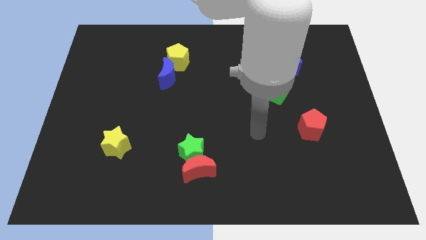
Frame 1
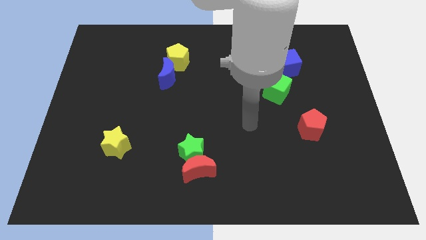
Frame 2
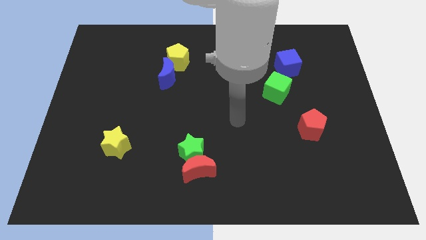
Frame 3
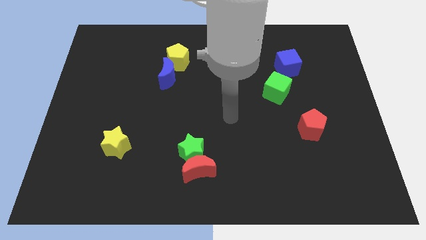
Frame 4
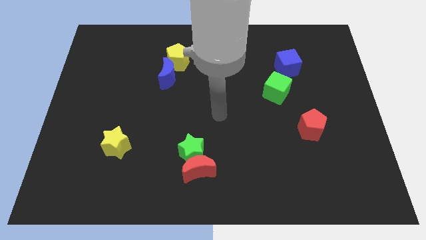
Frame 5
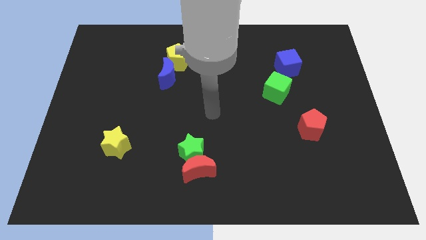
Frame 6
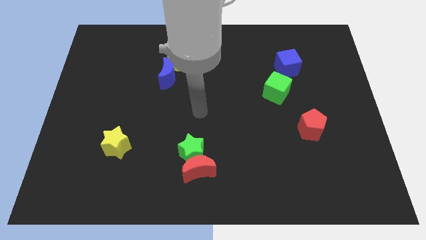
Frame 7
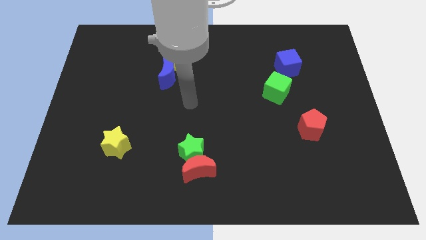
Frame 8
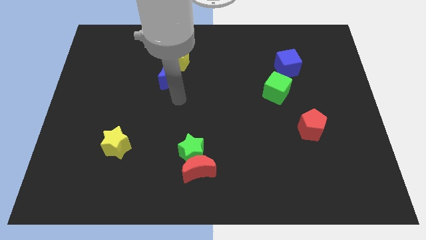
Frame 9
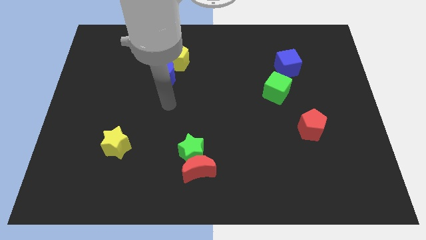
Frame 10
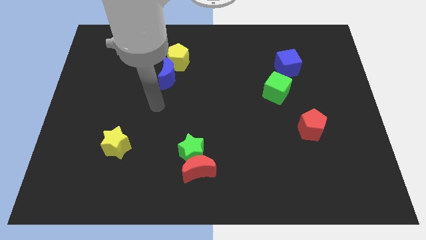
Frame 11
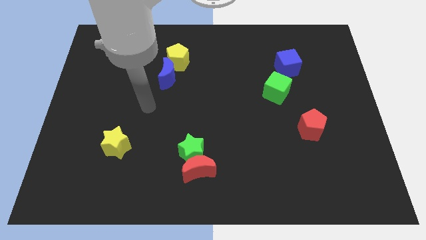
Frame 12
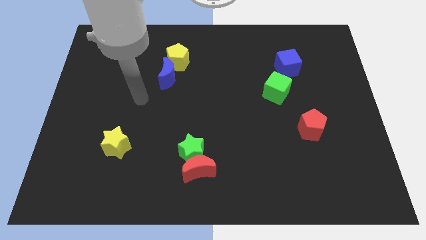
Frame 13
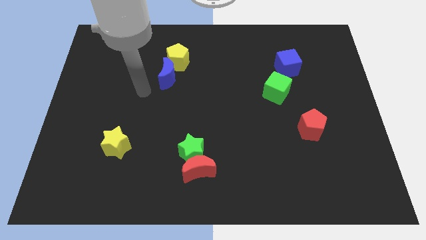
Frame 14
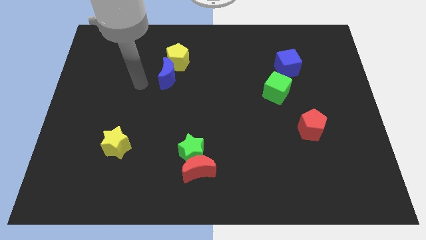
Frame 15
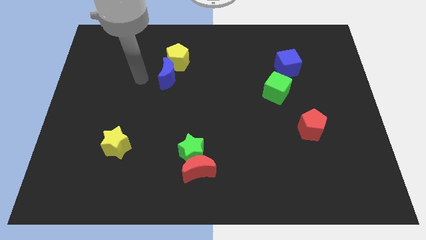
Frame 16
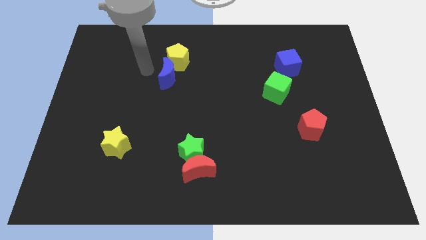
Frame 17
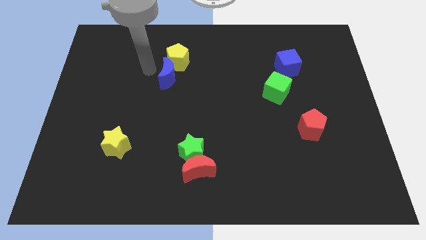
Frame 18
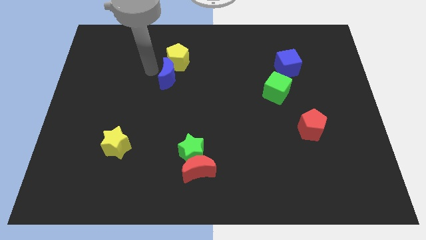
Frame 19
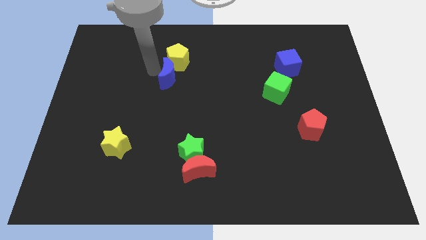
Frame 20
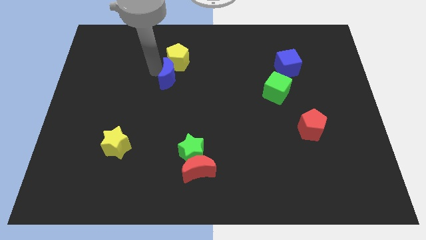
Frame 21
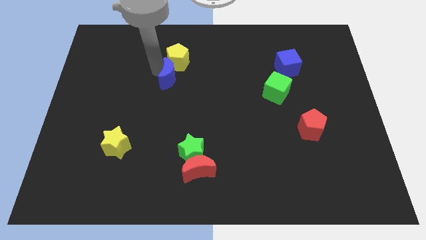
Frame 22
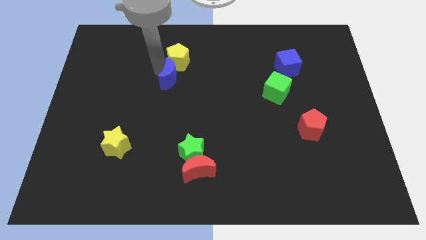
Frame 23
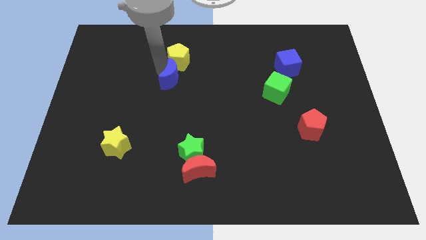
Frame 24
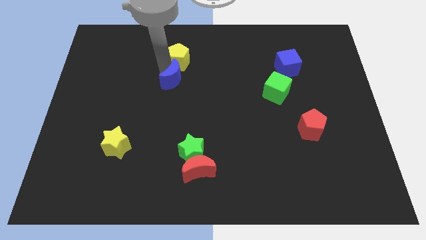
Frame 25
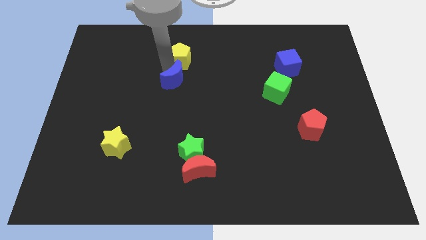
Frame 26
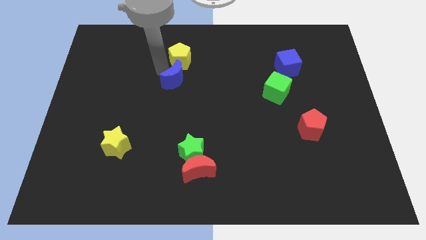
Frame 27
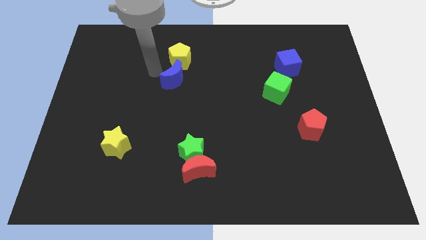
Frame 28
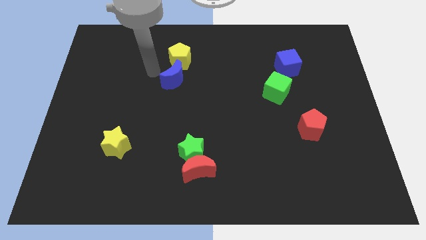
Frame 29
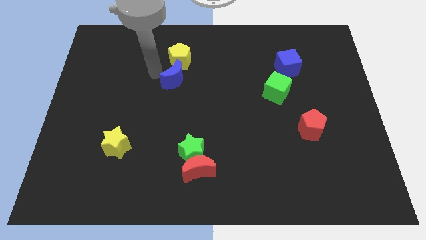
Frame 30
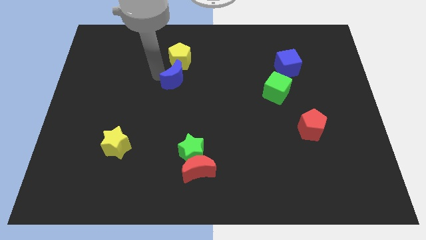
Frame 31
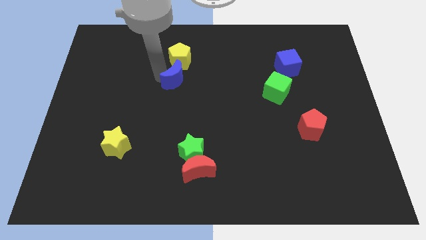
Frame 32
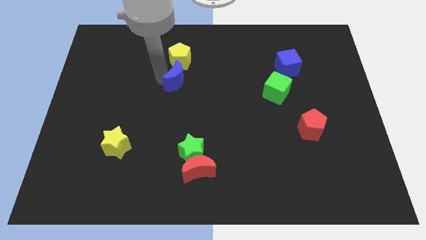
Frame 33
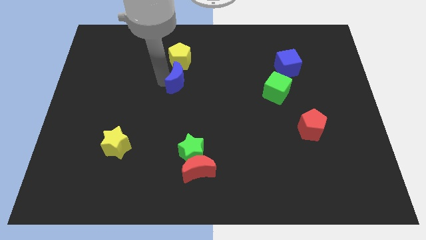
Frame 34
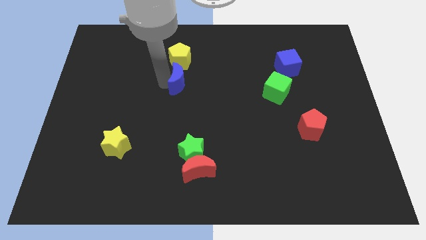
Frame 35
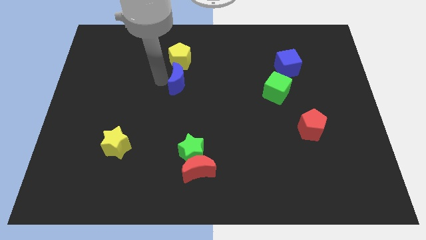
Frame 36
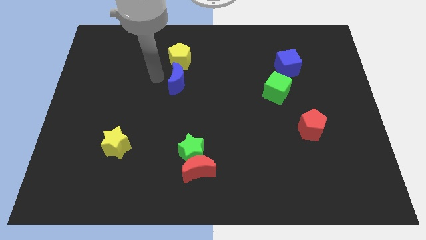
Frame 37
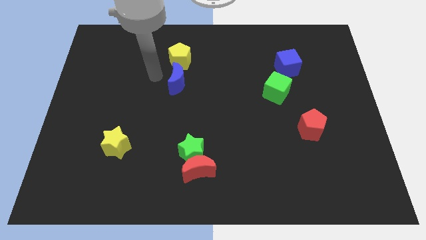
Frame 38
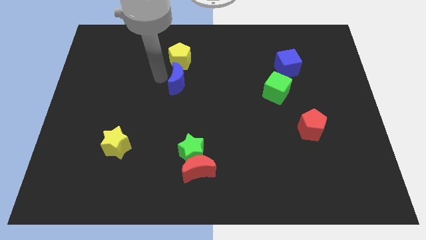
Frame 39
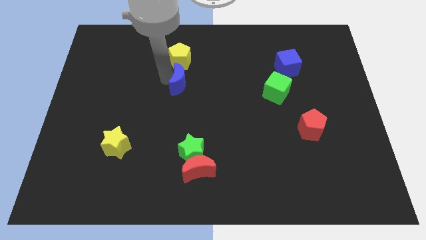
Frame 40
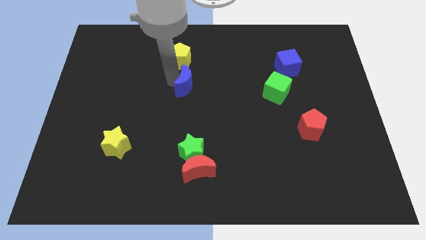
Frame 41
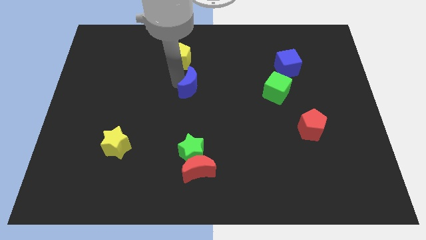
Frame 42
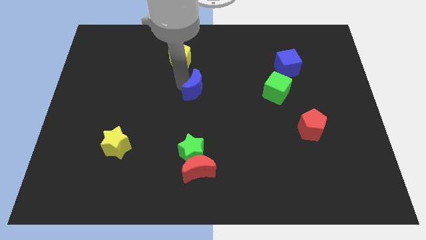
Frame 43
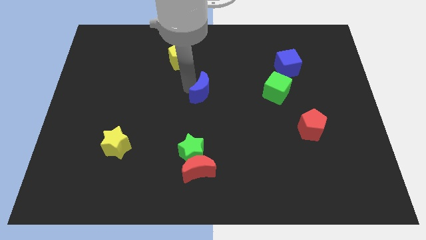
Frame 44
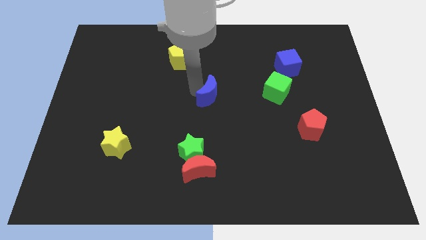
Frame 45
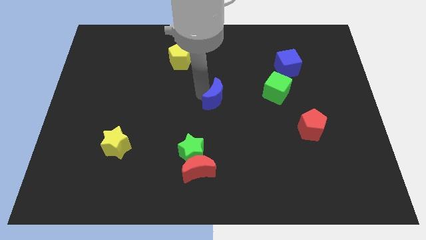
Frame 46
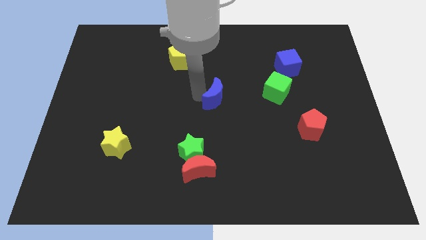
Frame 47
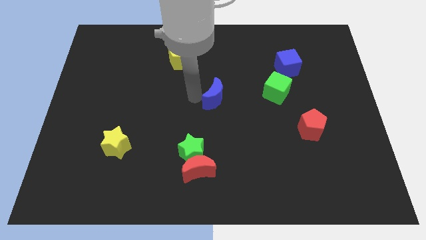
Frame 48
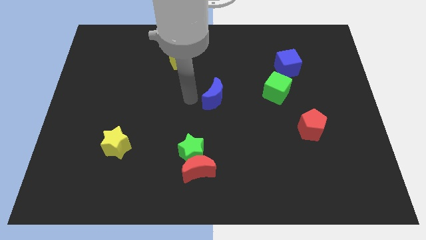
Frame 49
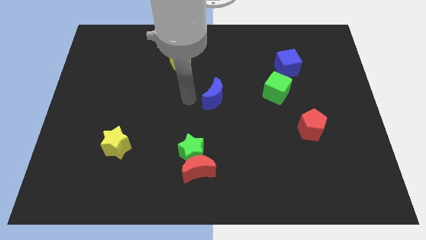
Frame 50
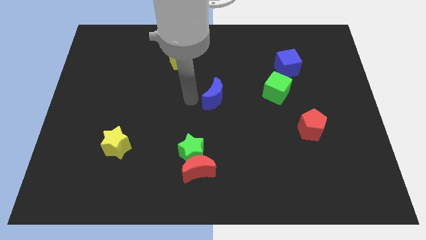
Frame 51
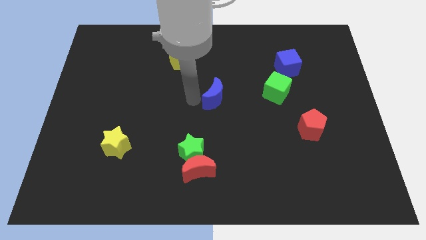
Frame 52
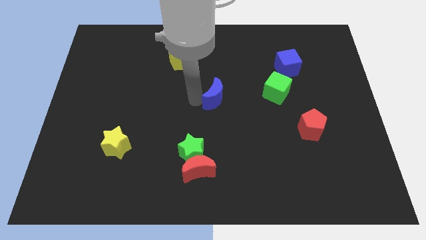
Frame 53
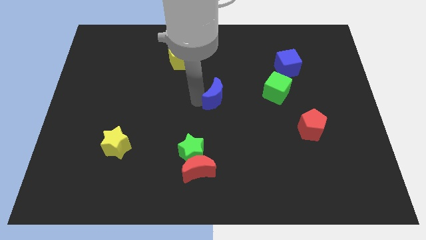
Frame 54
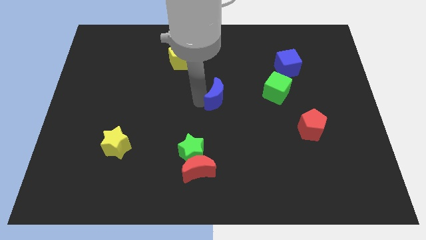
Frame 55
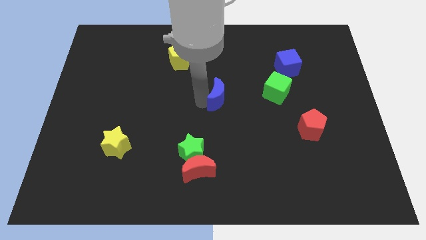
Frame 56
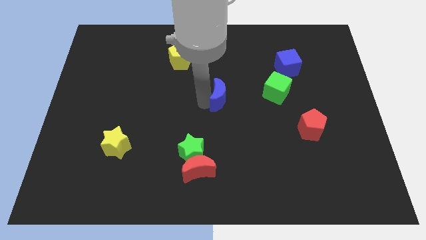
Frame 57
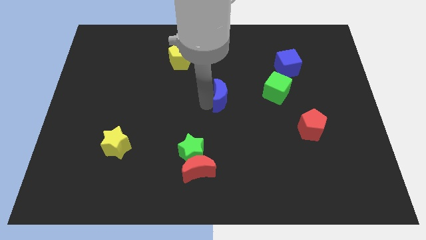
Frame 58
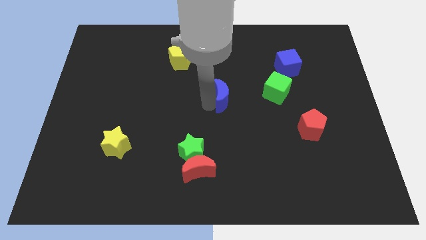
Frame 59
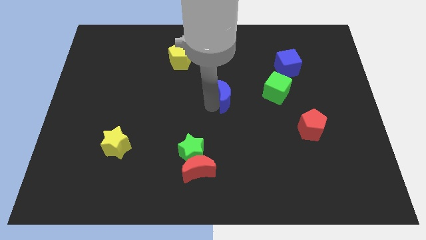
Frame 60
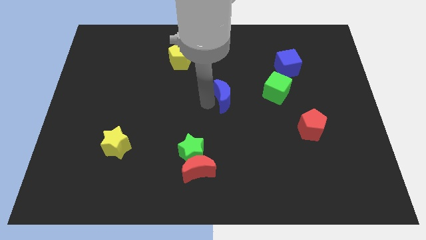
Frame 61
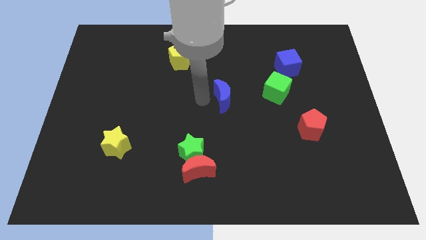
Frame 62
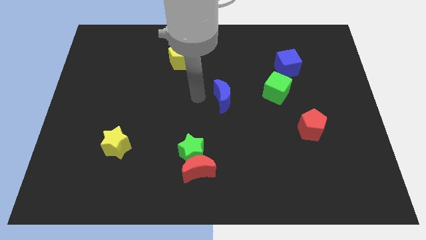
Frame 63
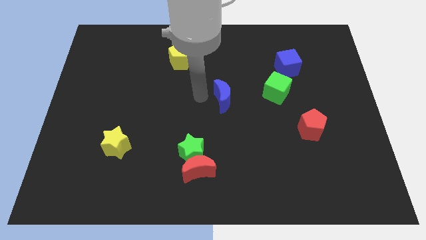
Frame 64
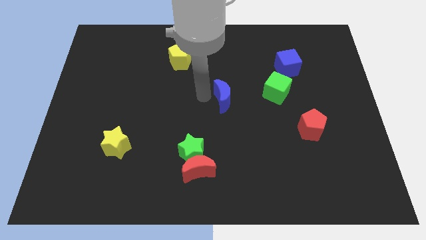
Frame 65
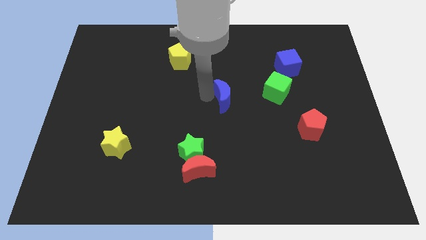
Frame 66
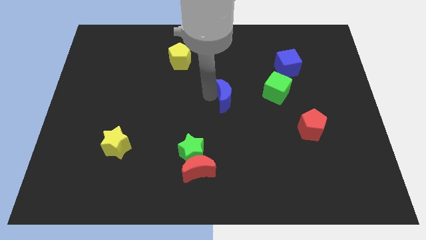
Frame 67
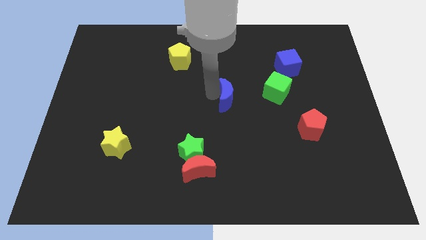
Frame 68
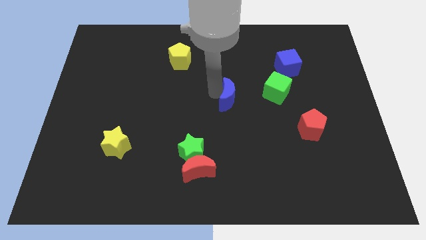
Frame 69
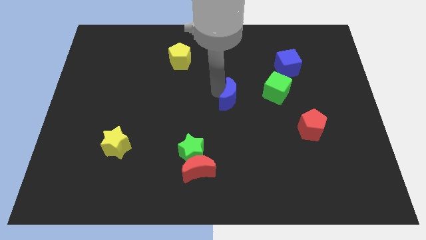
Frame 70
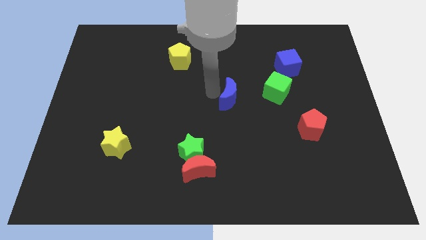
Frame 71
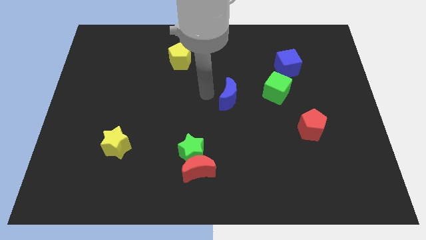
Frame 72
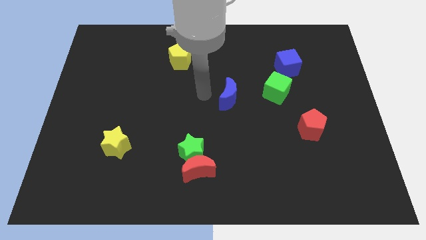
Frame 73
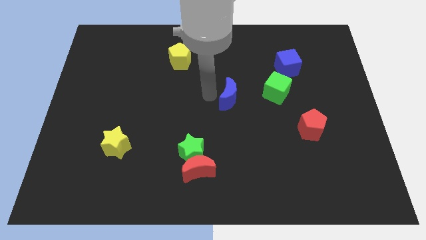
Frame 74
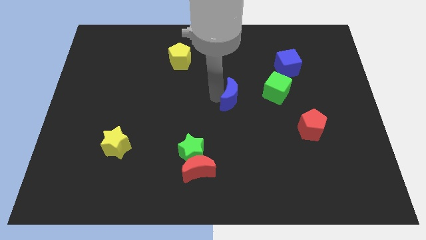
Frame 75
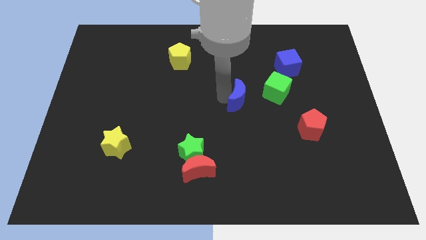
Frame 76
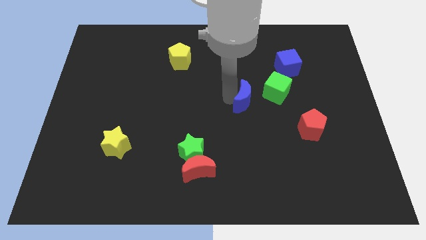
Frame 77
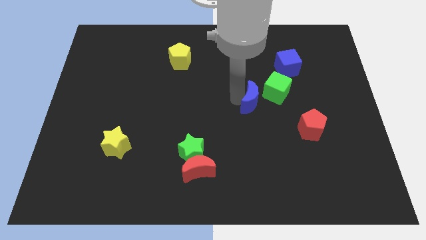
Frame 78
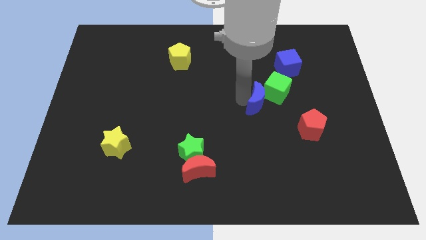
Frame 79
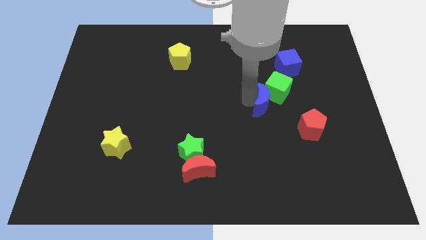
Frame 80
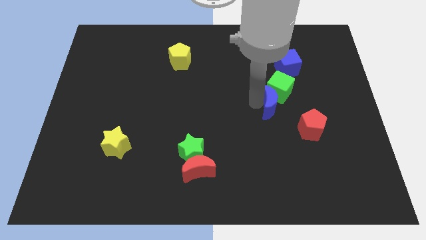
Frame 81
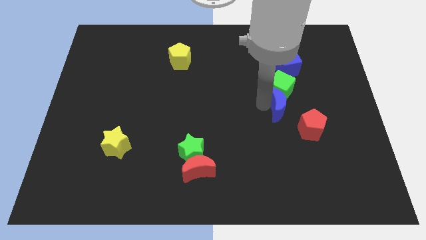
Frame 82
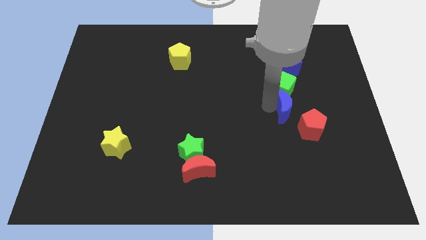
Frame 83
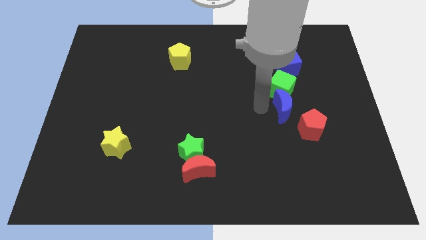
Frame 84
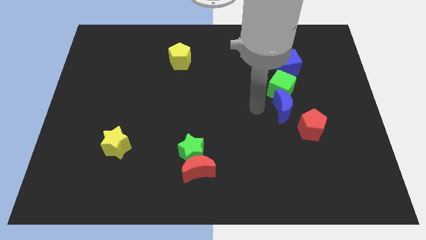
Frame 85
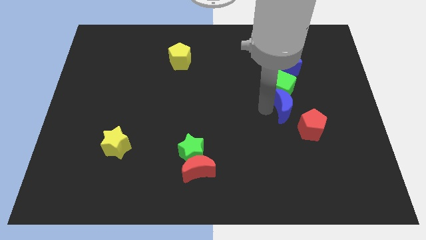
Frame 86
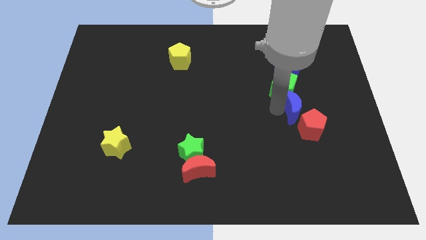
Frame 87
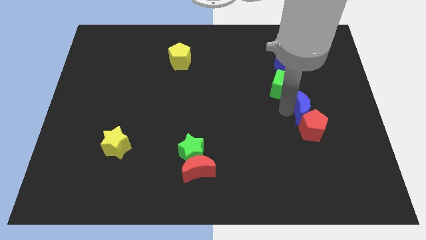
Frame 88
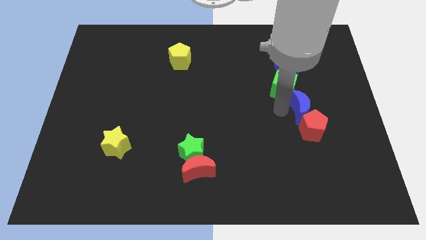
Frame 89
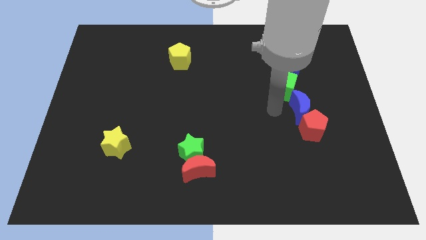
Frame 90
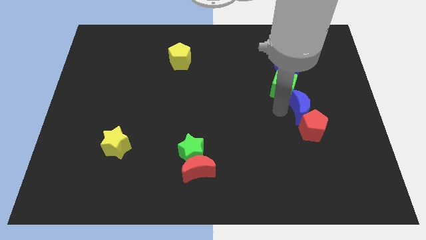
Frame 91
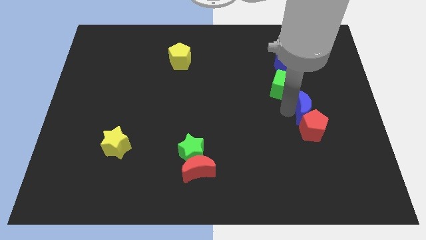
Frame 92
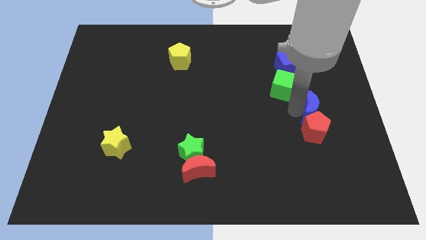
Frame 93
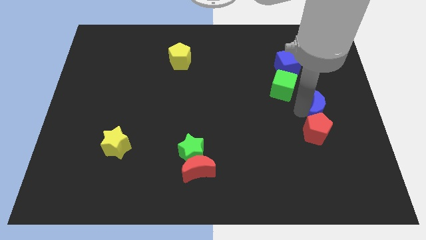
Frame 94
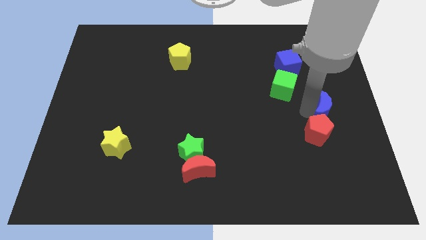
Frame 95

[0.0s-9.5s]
put the blue moon to the right side of the board
